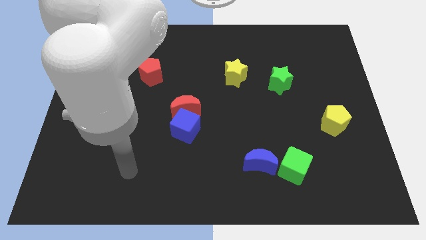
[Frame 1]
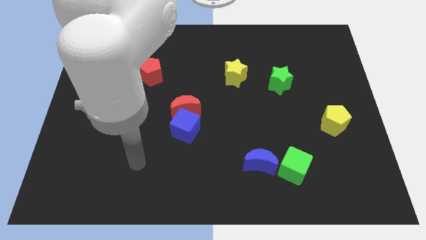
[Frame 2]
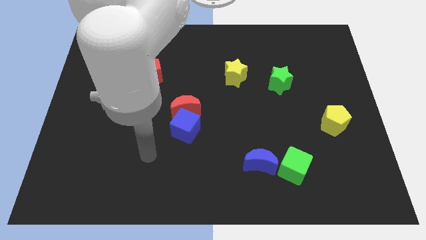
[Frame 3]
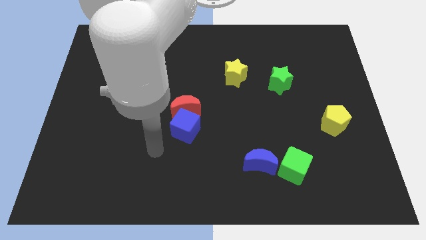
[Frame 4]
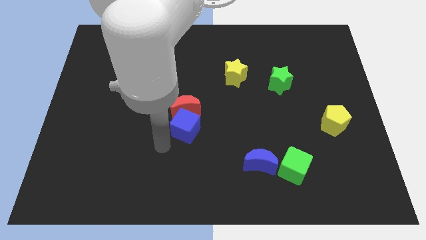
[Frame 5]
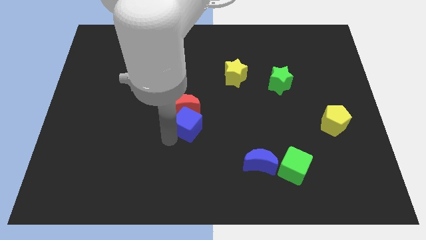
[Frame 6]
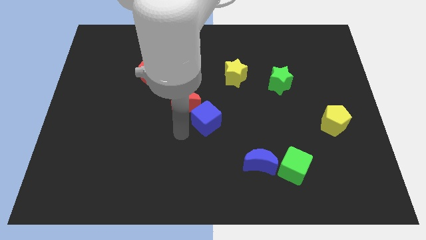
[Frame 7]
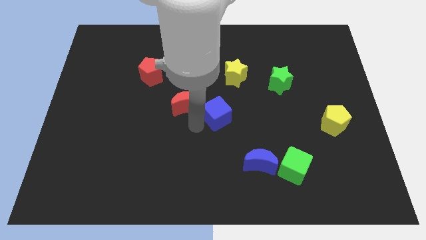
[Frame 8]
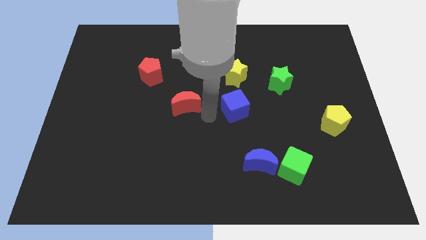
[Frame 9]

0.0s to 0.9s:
separate the red moon from the blue cube

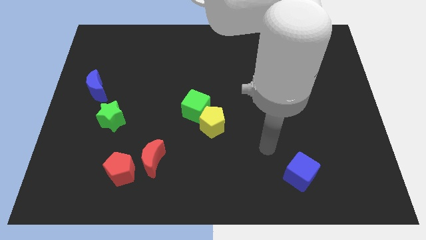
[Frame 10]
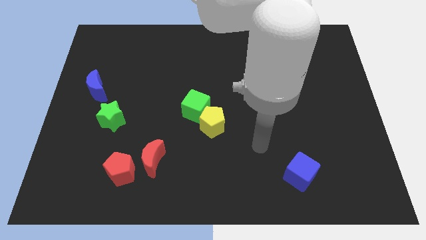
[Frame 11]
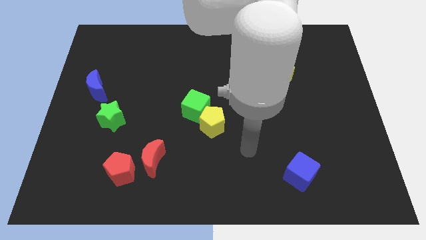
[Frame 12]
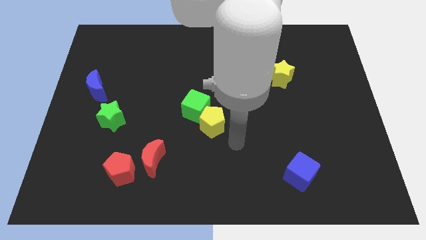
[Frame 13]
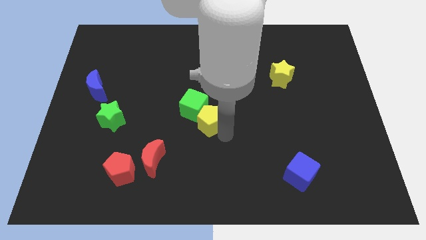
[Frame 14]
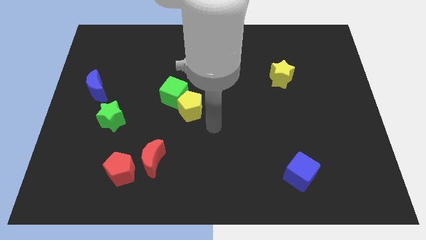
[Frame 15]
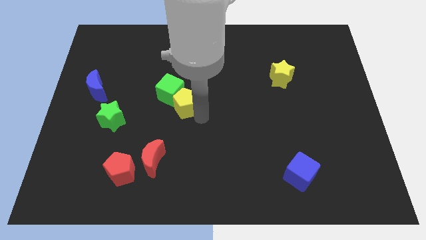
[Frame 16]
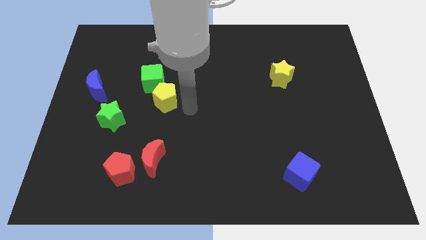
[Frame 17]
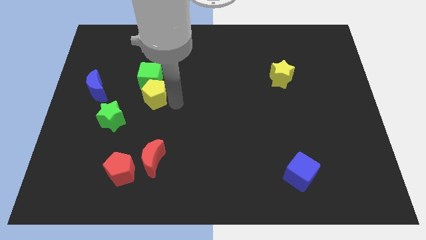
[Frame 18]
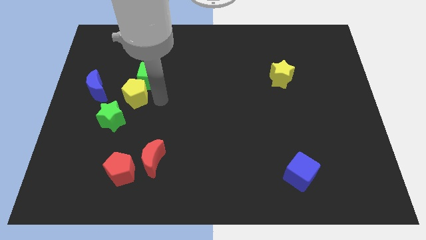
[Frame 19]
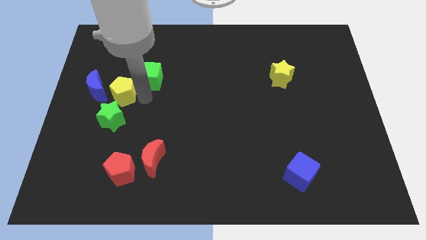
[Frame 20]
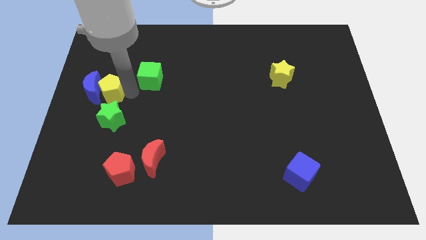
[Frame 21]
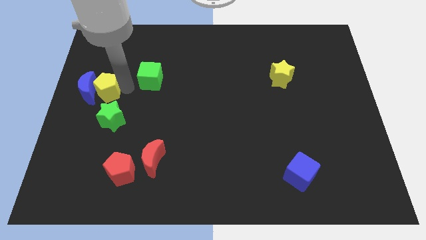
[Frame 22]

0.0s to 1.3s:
move the green cube away from the yellow pentagon

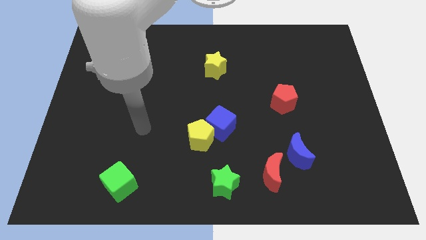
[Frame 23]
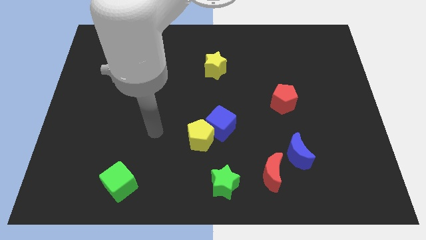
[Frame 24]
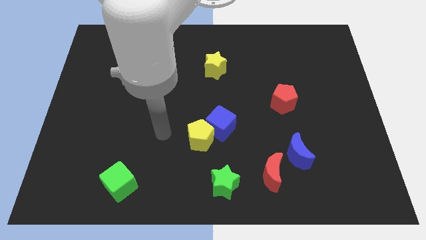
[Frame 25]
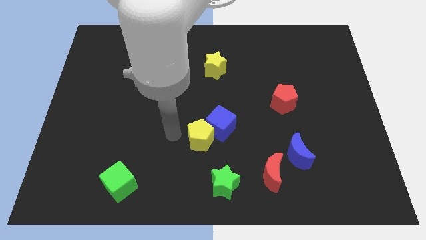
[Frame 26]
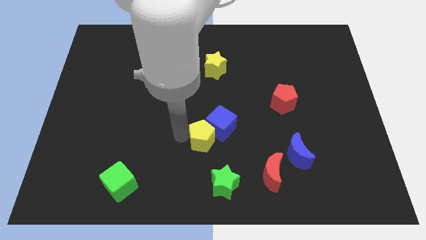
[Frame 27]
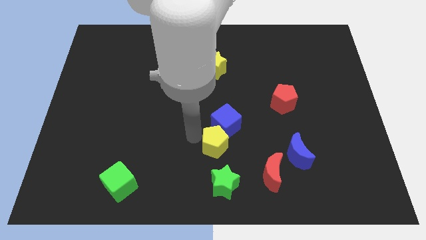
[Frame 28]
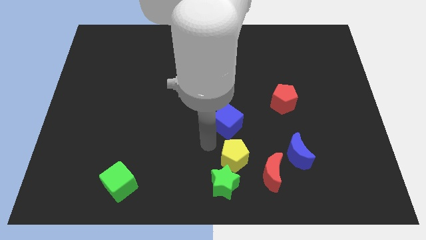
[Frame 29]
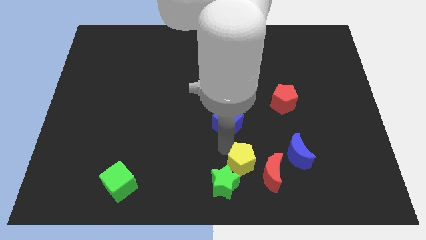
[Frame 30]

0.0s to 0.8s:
pull the blue cube apart from the yellow pentagon

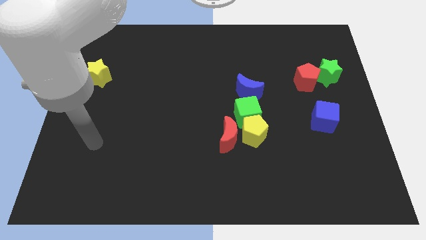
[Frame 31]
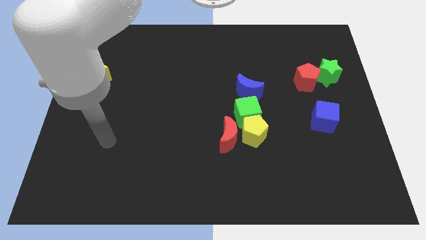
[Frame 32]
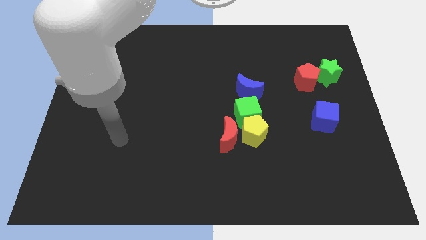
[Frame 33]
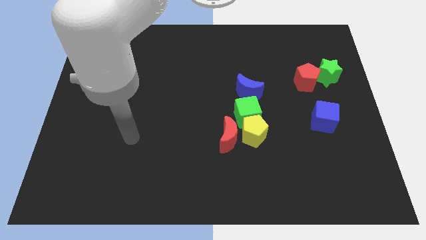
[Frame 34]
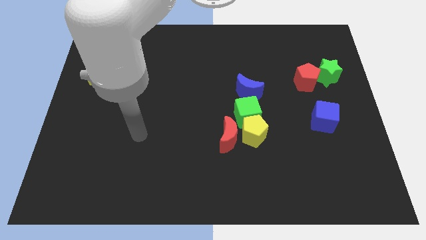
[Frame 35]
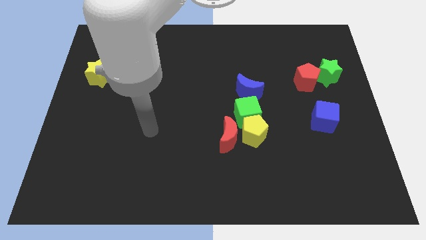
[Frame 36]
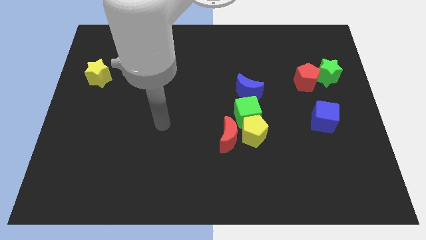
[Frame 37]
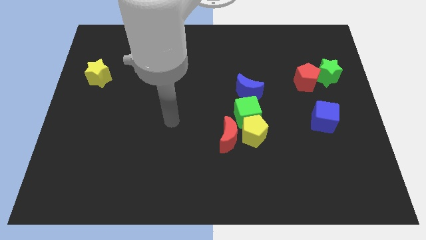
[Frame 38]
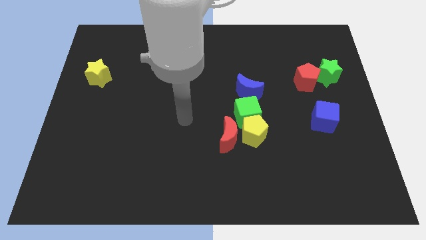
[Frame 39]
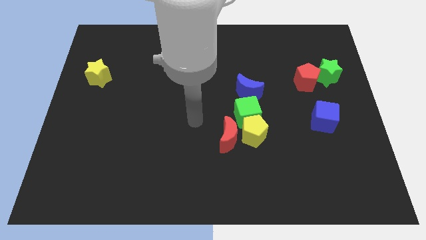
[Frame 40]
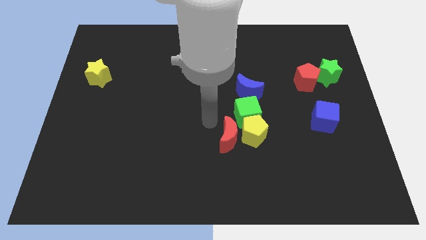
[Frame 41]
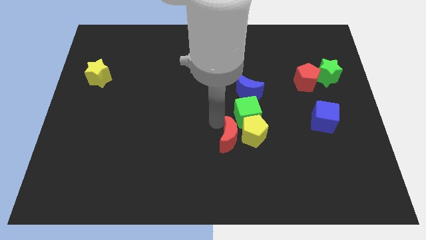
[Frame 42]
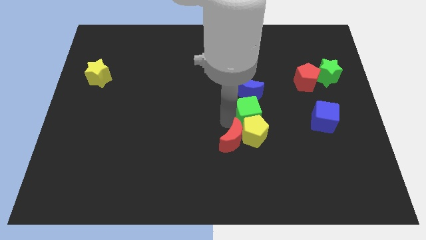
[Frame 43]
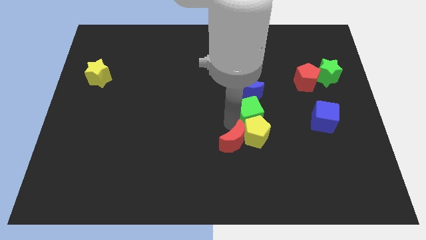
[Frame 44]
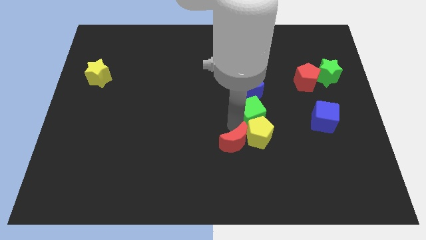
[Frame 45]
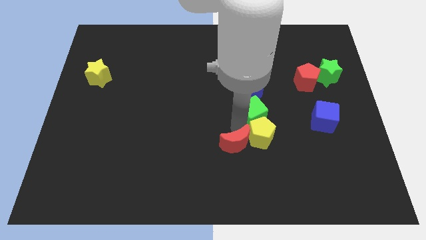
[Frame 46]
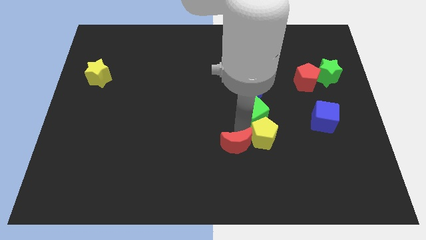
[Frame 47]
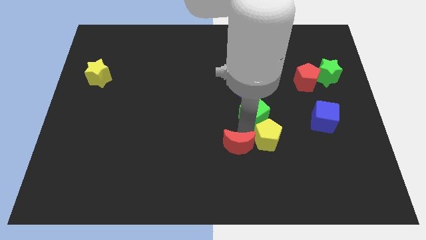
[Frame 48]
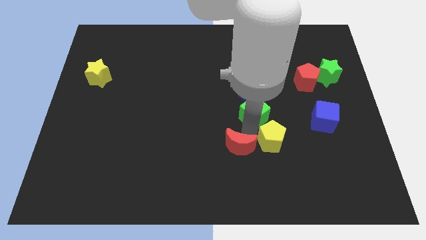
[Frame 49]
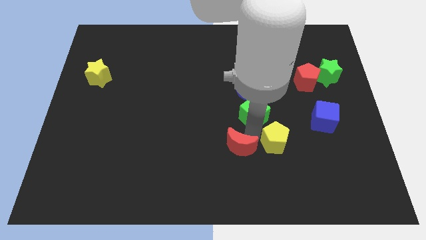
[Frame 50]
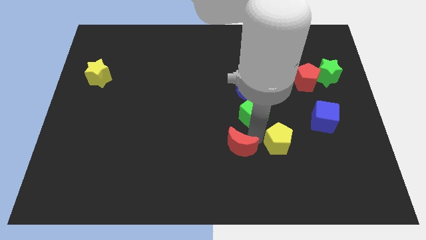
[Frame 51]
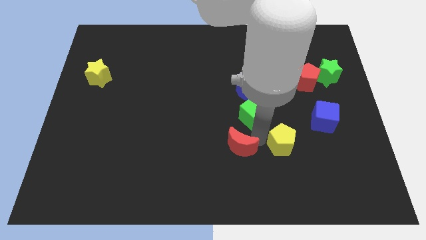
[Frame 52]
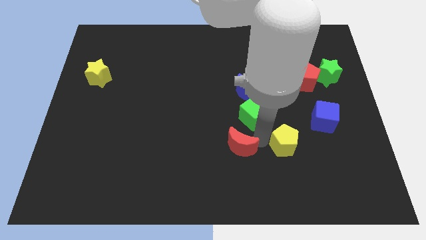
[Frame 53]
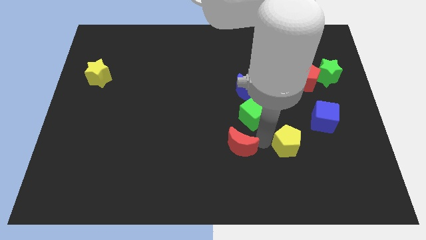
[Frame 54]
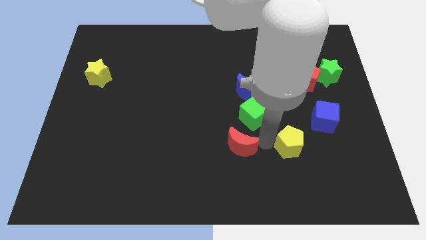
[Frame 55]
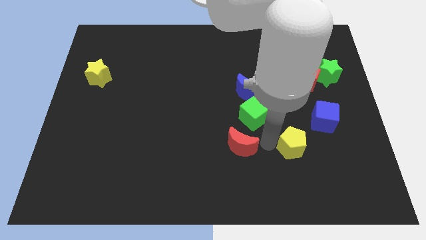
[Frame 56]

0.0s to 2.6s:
separate the yellow pentagon from the green cube and red moon

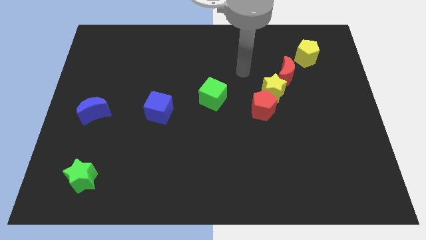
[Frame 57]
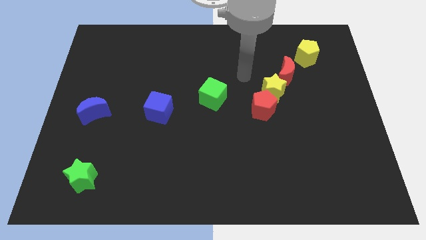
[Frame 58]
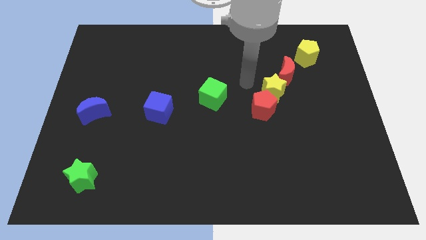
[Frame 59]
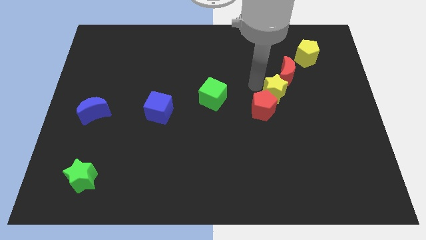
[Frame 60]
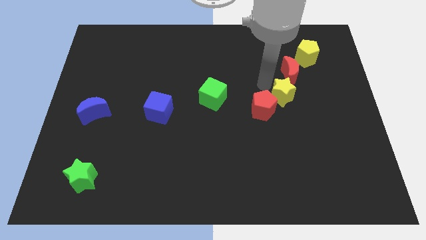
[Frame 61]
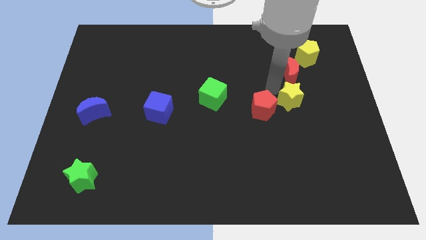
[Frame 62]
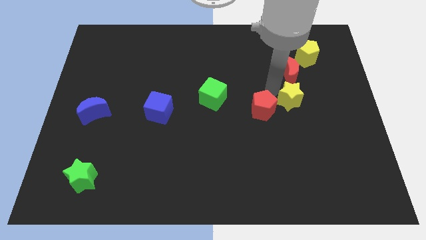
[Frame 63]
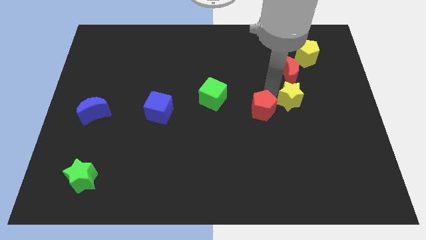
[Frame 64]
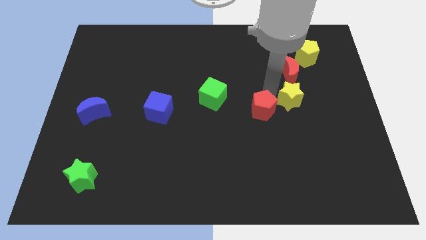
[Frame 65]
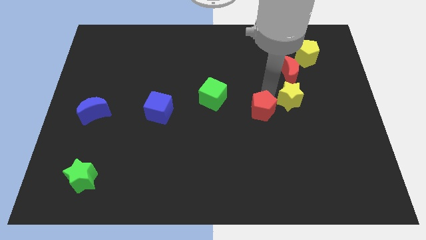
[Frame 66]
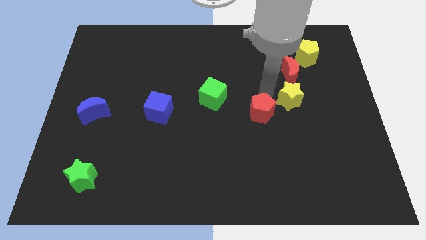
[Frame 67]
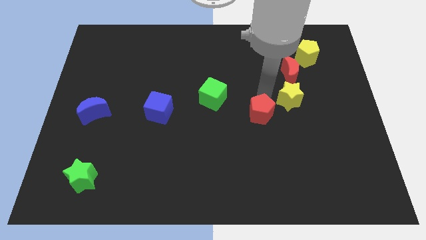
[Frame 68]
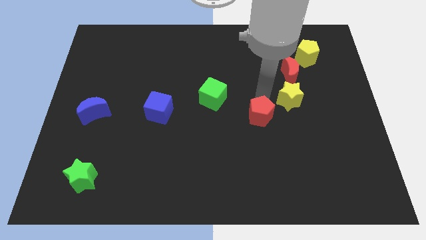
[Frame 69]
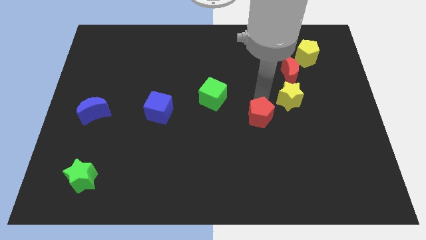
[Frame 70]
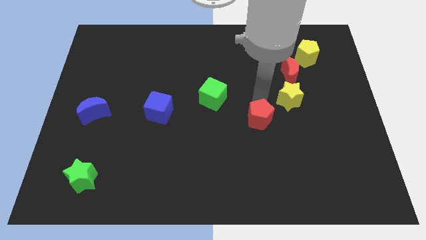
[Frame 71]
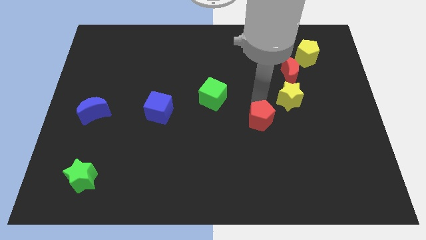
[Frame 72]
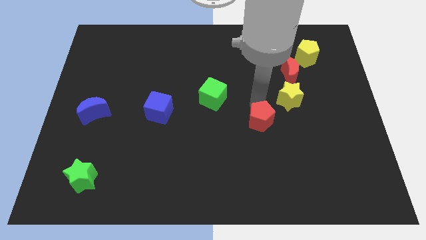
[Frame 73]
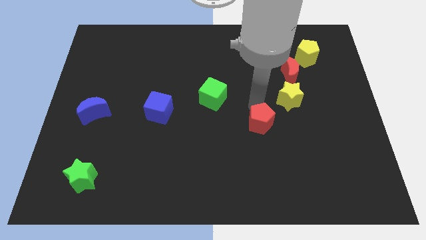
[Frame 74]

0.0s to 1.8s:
move the red pentagon away from the yellow star

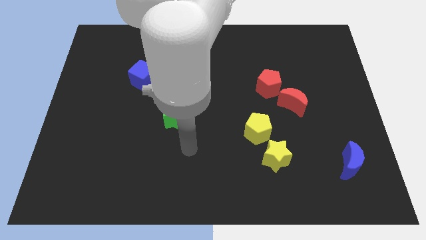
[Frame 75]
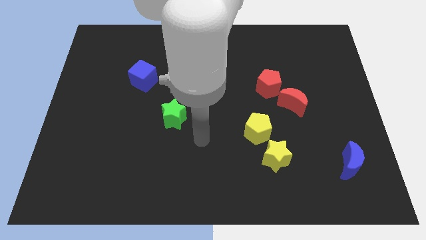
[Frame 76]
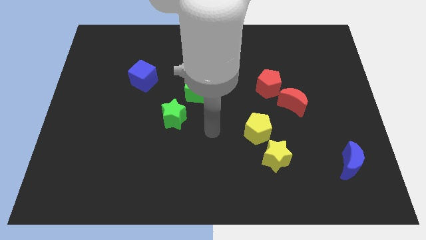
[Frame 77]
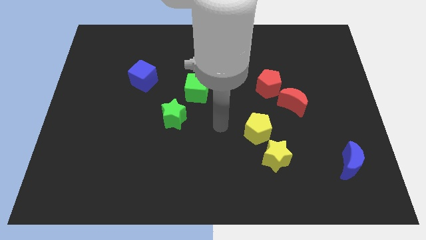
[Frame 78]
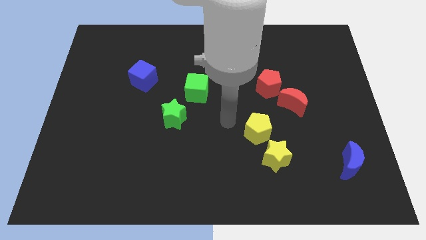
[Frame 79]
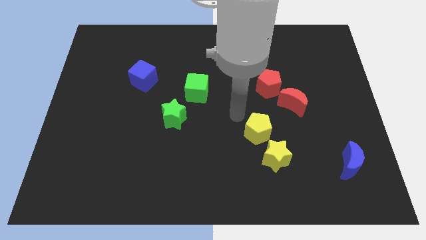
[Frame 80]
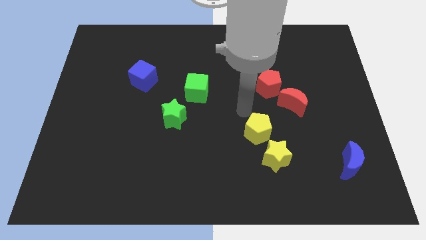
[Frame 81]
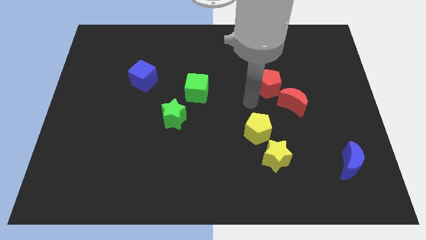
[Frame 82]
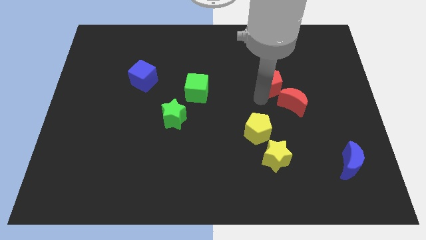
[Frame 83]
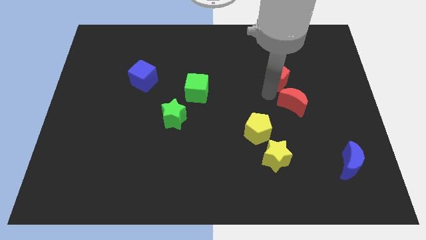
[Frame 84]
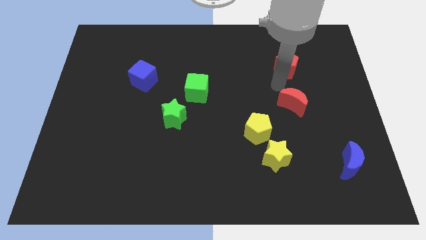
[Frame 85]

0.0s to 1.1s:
pull the red moon apart from the red pentagon

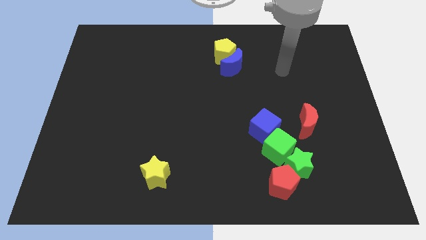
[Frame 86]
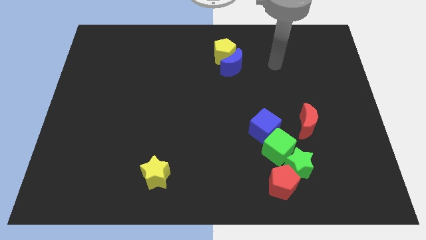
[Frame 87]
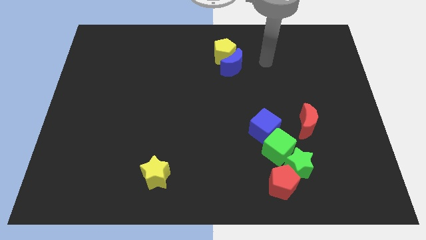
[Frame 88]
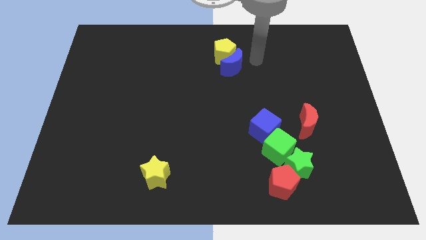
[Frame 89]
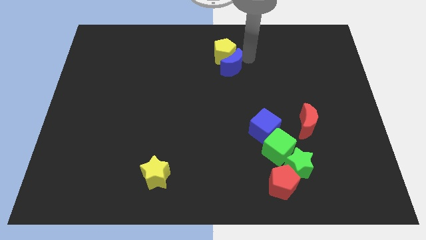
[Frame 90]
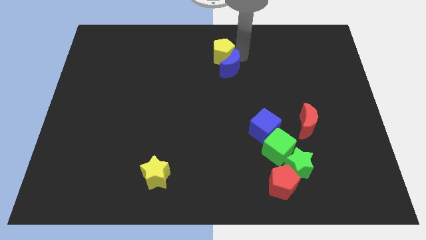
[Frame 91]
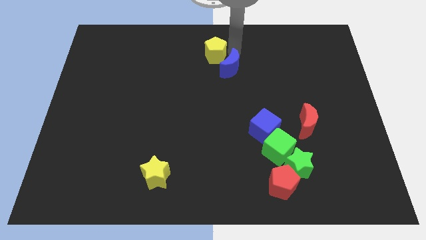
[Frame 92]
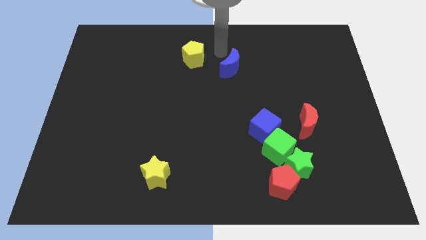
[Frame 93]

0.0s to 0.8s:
separate the blue moon from the yellow pentagon
